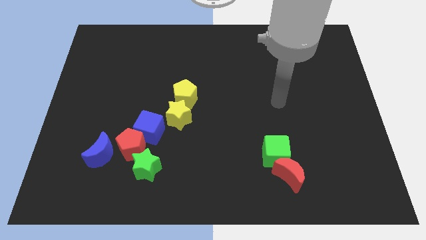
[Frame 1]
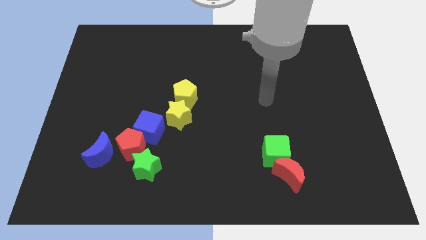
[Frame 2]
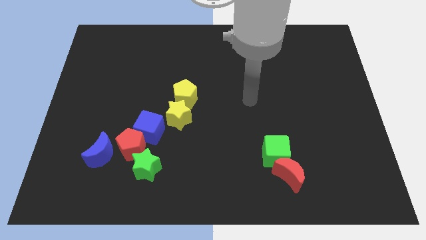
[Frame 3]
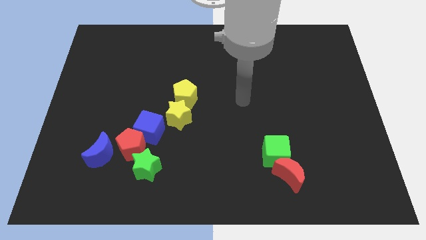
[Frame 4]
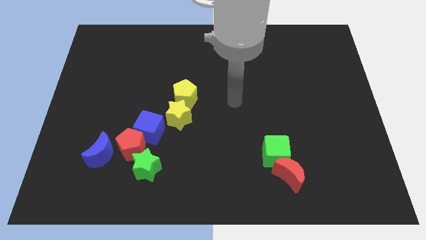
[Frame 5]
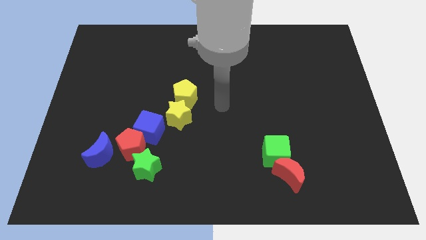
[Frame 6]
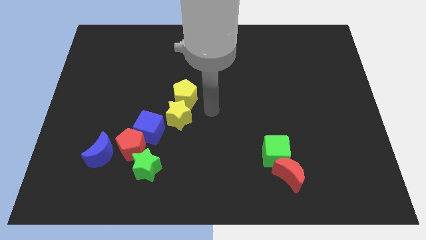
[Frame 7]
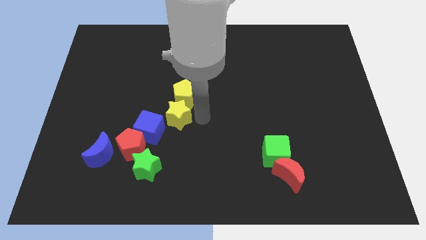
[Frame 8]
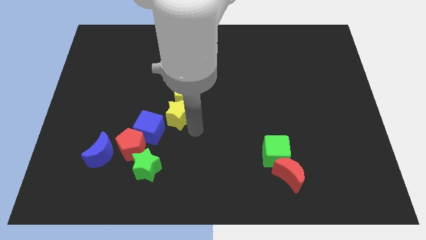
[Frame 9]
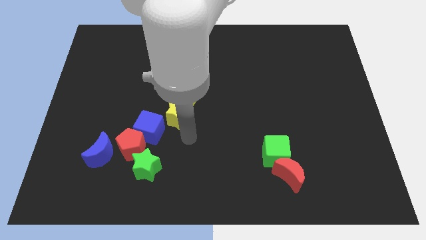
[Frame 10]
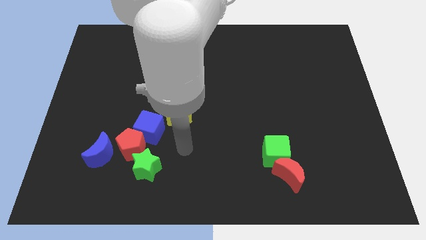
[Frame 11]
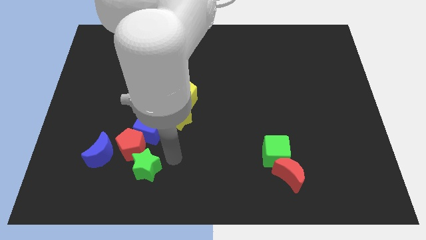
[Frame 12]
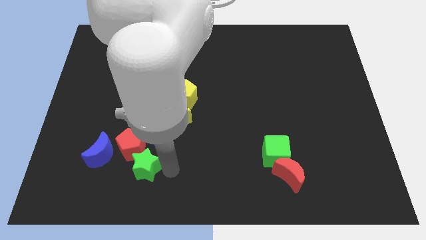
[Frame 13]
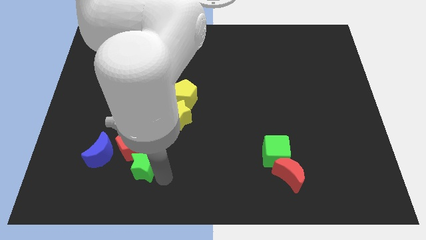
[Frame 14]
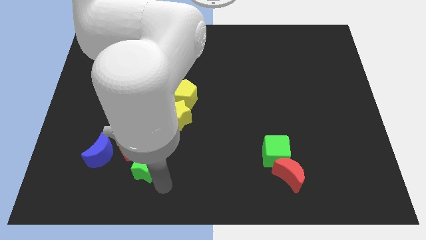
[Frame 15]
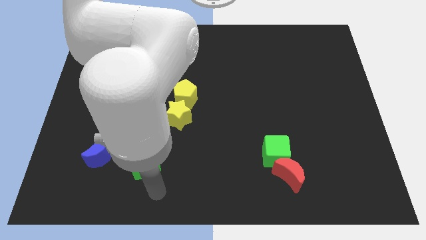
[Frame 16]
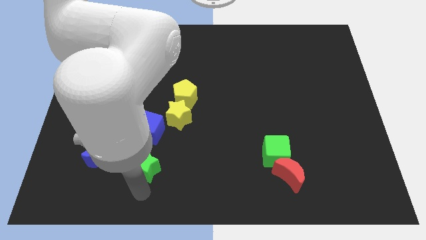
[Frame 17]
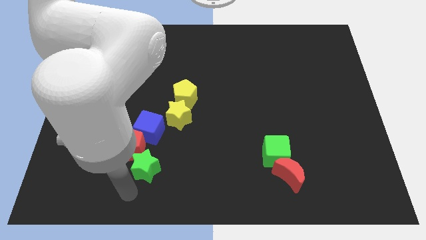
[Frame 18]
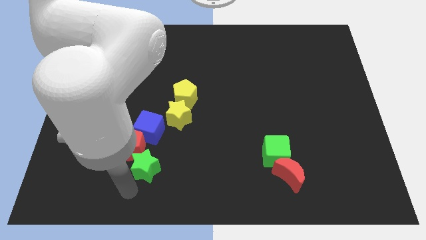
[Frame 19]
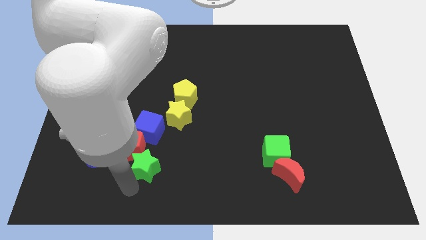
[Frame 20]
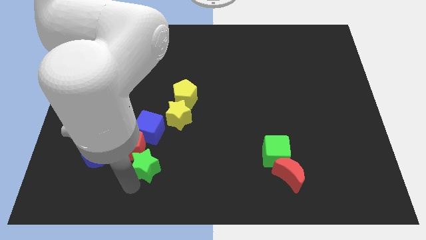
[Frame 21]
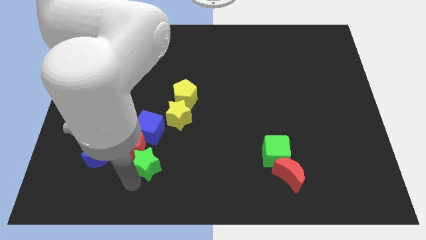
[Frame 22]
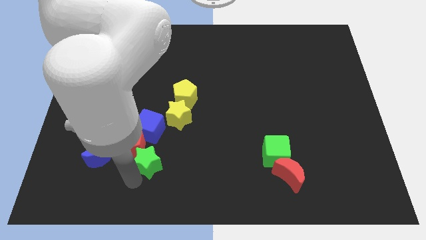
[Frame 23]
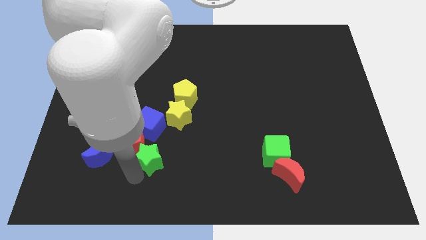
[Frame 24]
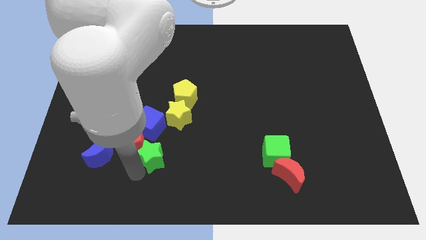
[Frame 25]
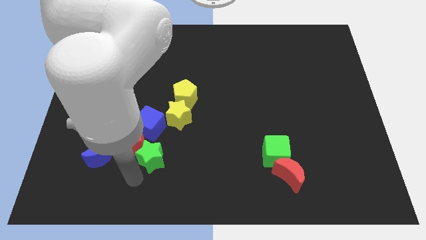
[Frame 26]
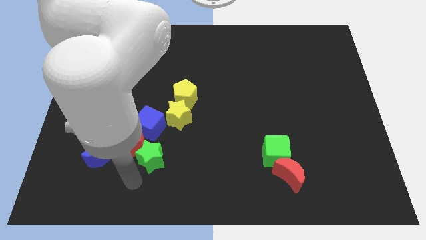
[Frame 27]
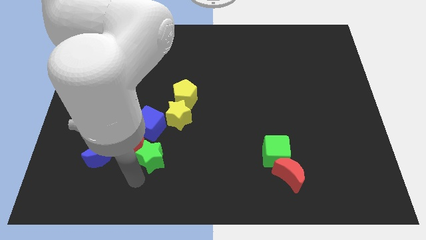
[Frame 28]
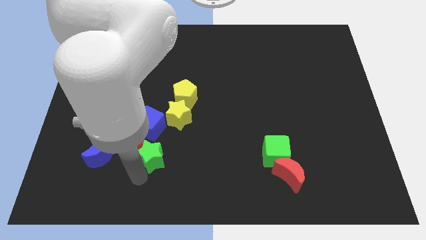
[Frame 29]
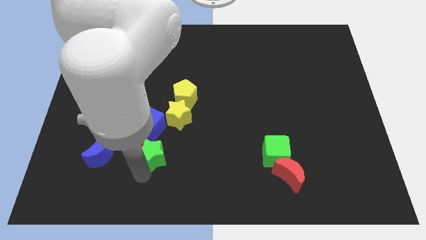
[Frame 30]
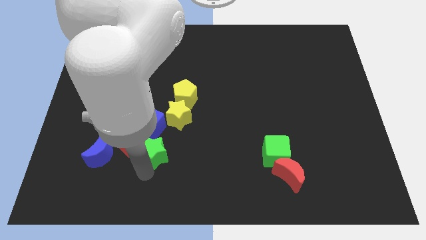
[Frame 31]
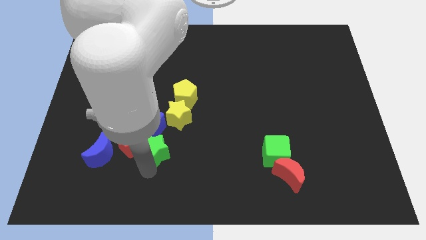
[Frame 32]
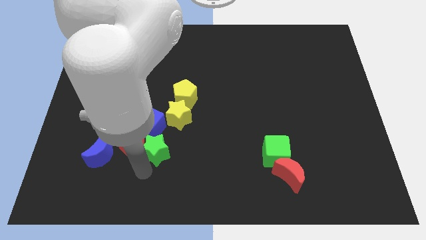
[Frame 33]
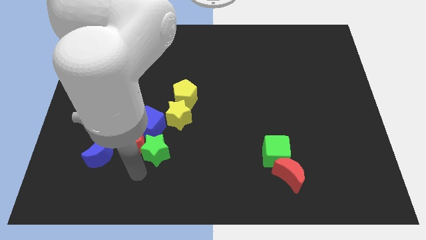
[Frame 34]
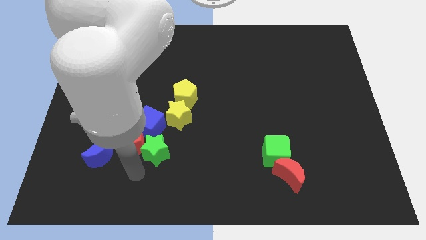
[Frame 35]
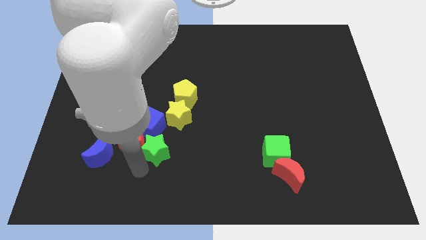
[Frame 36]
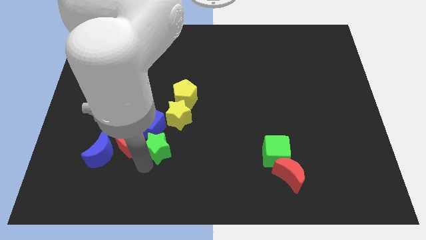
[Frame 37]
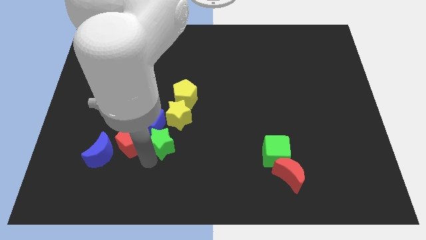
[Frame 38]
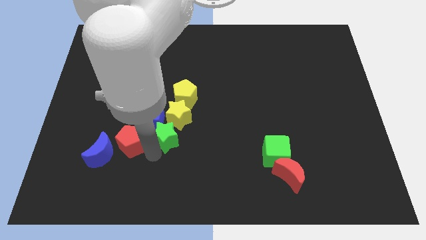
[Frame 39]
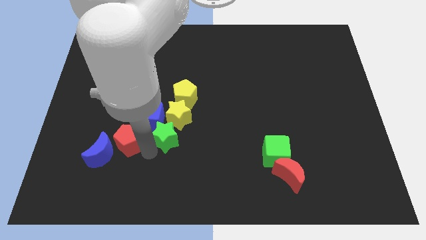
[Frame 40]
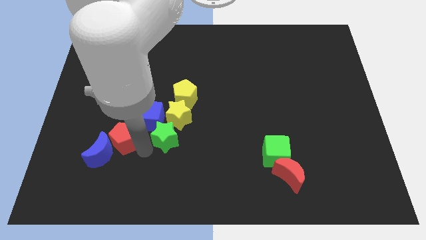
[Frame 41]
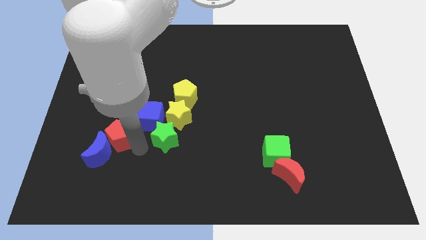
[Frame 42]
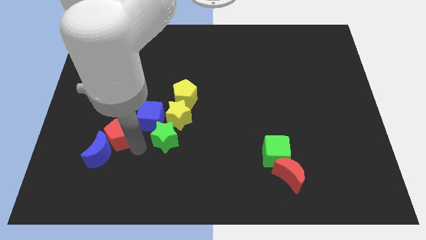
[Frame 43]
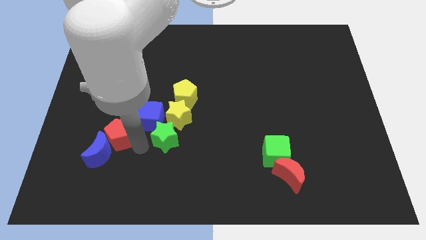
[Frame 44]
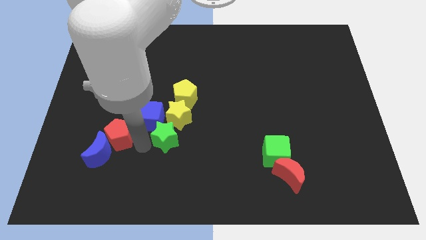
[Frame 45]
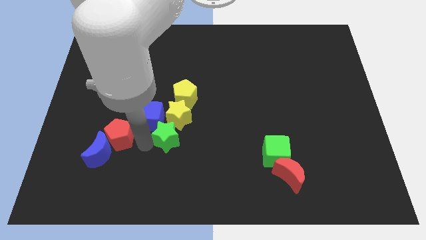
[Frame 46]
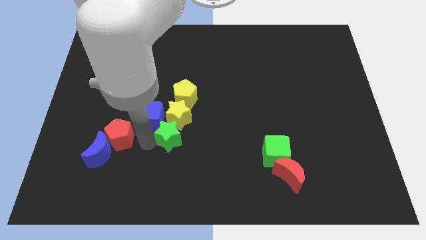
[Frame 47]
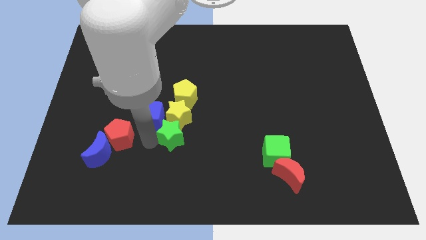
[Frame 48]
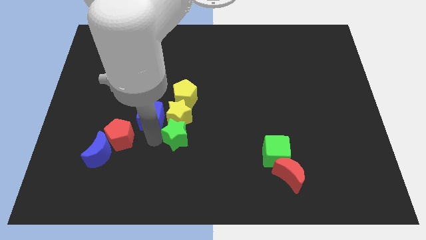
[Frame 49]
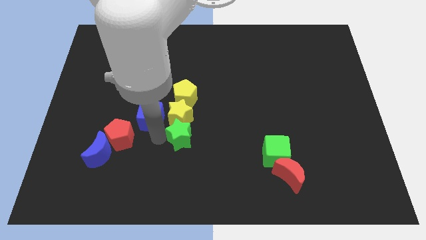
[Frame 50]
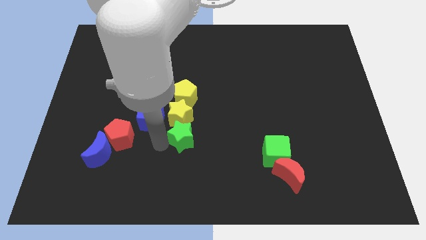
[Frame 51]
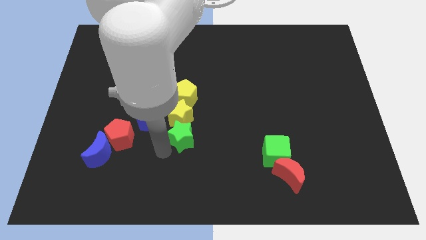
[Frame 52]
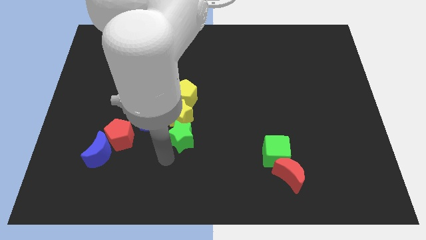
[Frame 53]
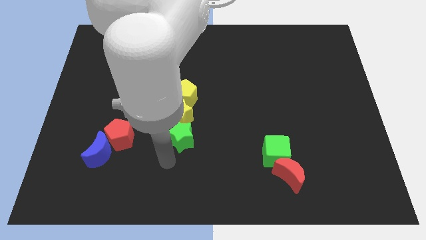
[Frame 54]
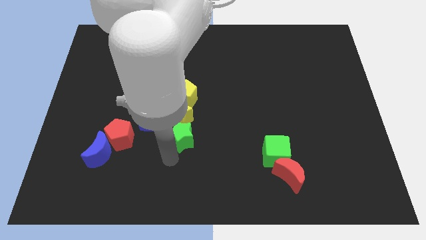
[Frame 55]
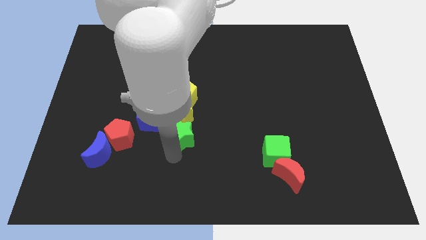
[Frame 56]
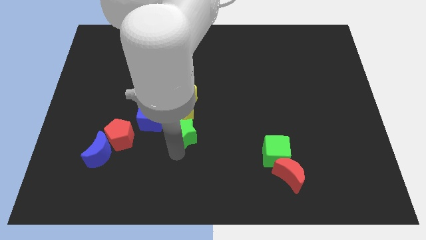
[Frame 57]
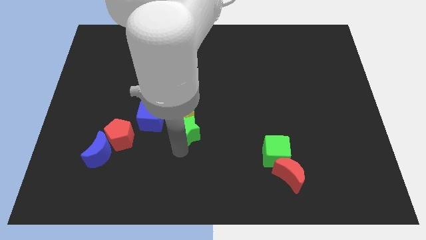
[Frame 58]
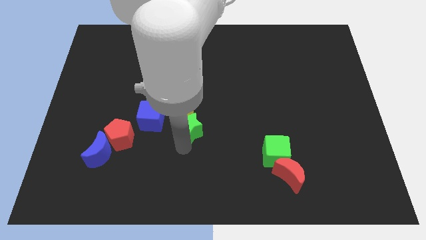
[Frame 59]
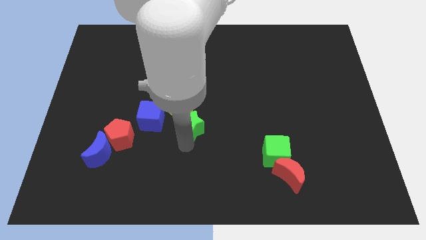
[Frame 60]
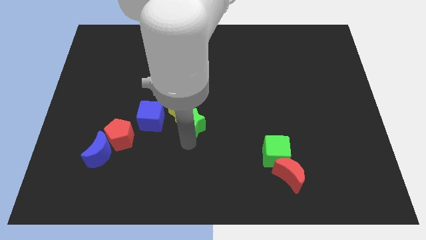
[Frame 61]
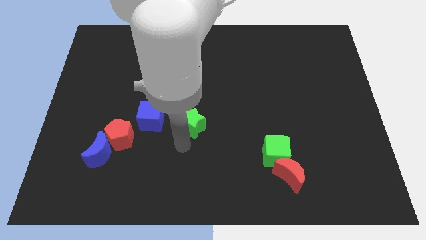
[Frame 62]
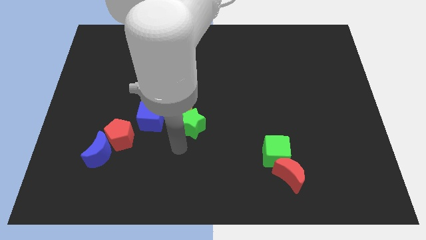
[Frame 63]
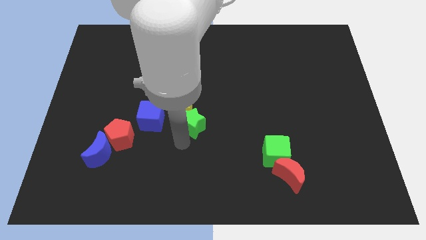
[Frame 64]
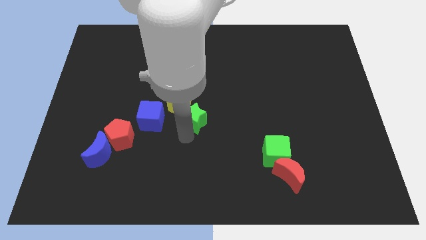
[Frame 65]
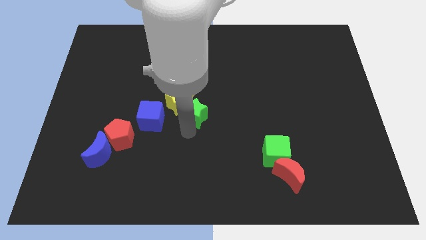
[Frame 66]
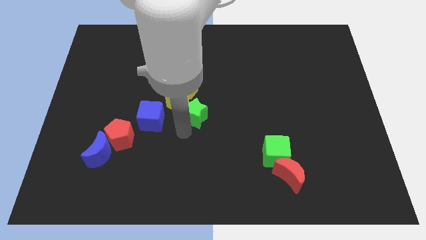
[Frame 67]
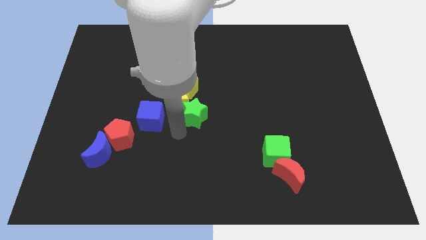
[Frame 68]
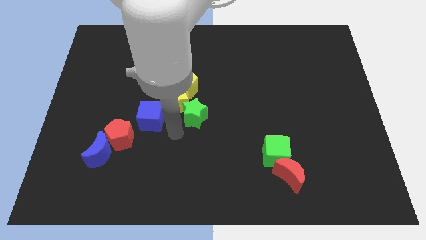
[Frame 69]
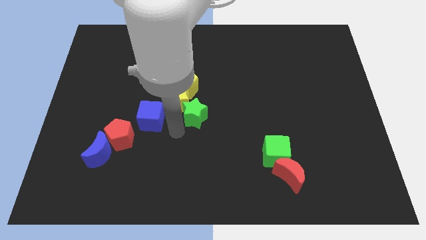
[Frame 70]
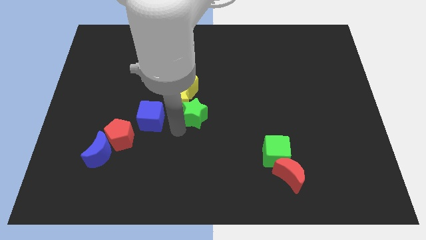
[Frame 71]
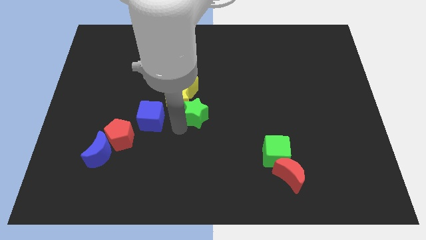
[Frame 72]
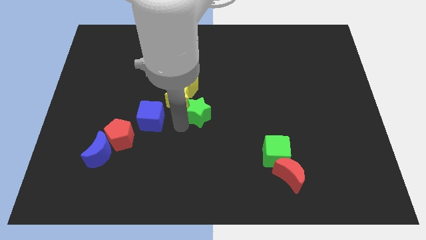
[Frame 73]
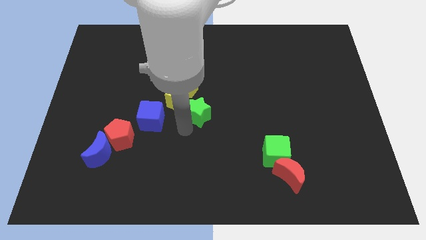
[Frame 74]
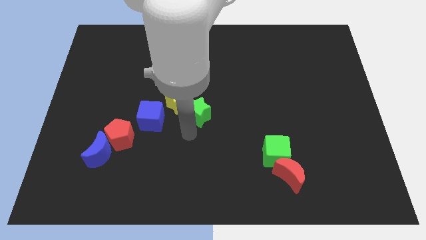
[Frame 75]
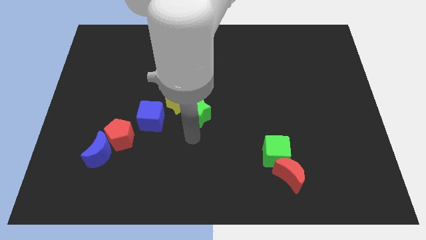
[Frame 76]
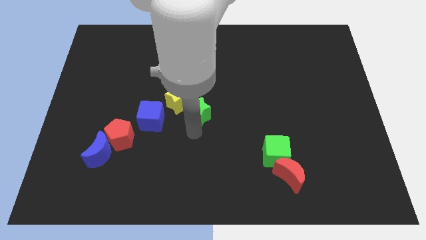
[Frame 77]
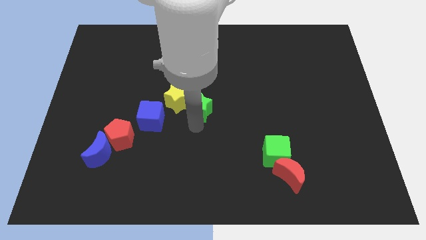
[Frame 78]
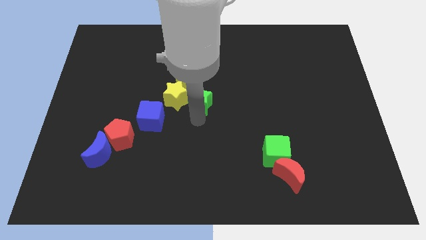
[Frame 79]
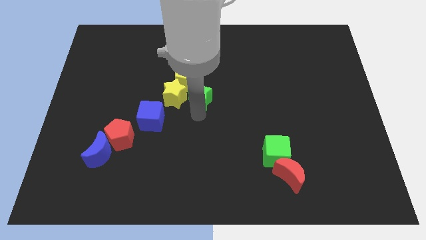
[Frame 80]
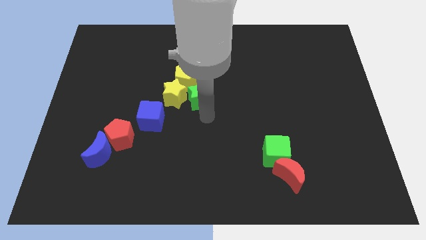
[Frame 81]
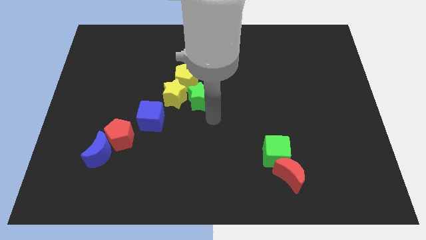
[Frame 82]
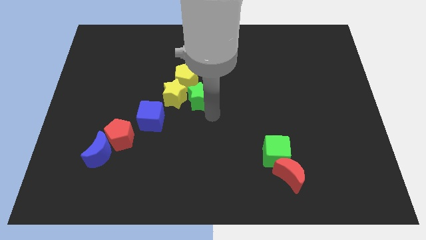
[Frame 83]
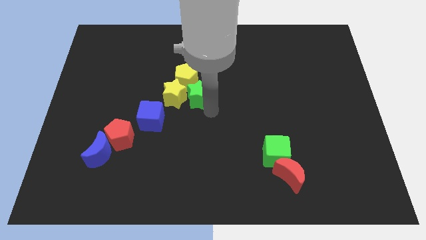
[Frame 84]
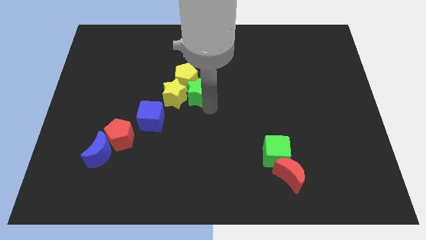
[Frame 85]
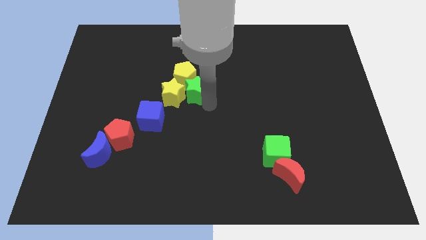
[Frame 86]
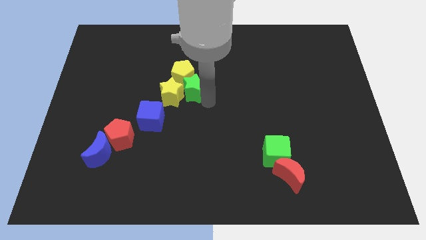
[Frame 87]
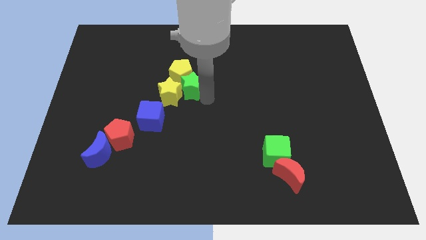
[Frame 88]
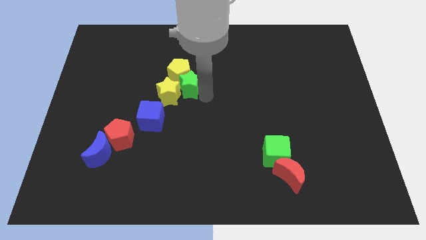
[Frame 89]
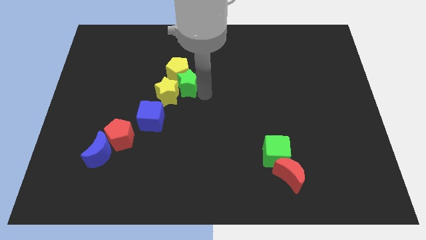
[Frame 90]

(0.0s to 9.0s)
push the green star upwards
